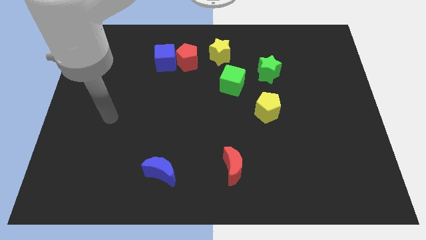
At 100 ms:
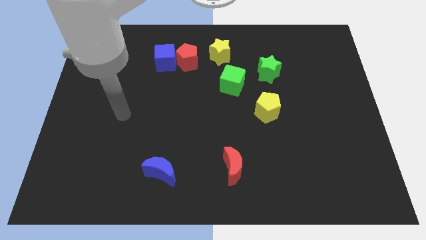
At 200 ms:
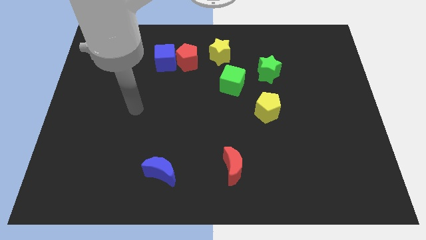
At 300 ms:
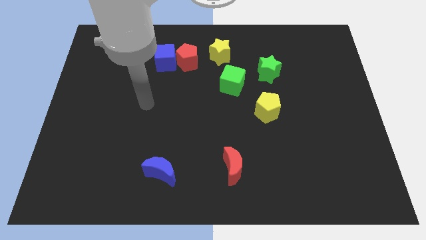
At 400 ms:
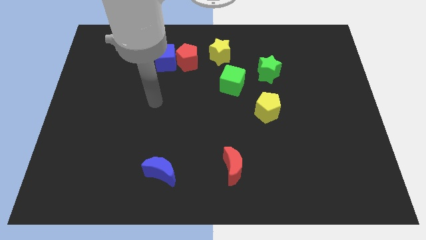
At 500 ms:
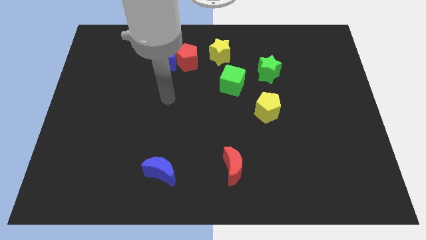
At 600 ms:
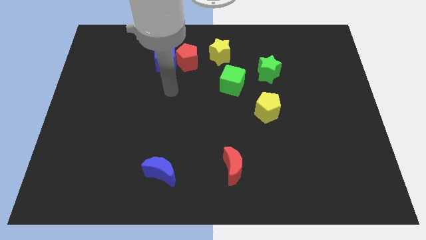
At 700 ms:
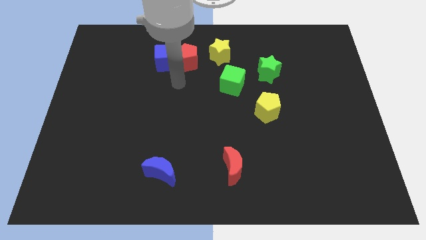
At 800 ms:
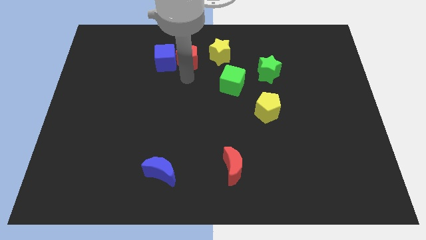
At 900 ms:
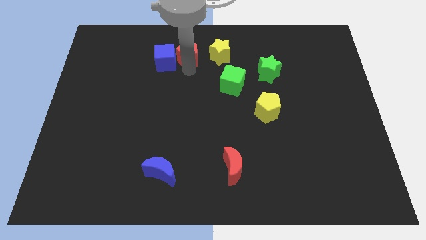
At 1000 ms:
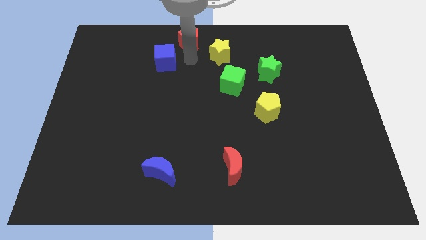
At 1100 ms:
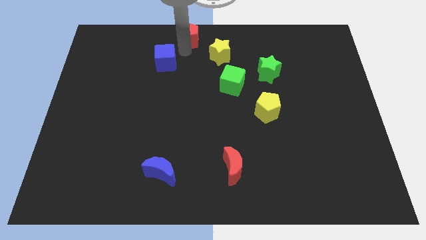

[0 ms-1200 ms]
pull the blue cube apart from the red pentagon

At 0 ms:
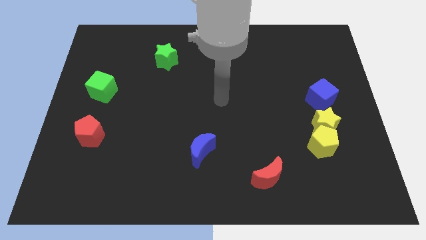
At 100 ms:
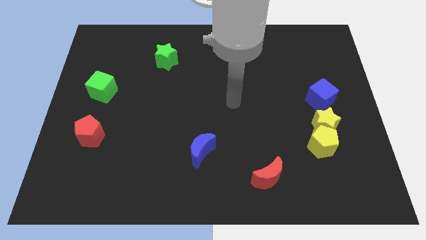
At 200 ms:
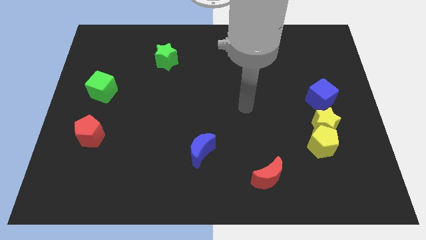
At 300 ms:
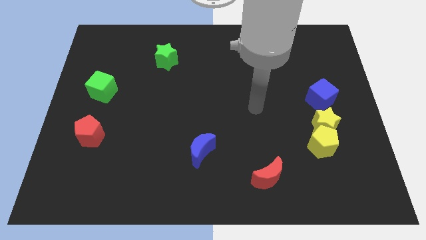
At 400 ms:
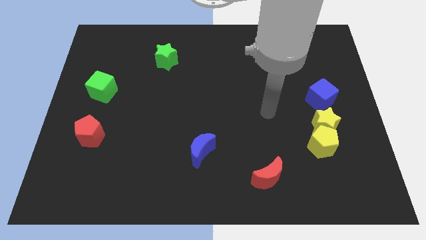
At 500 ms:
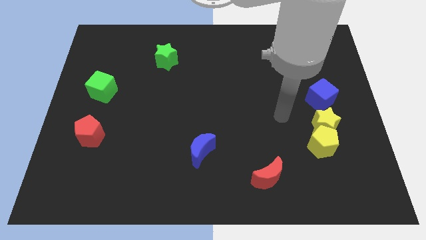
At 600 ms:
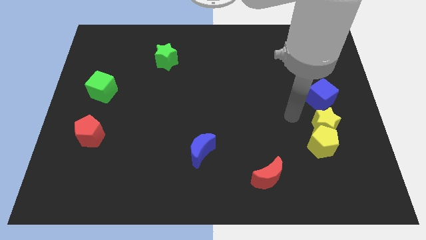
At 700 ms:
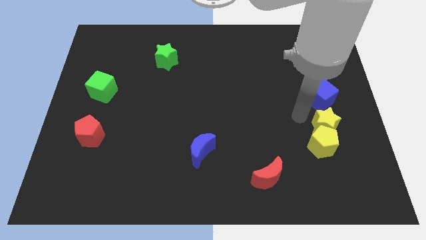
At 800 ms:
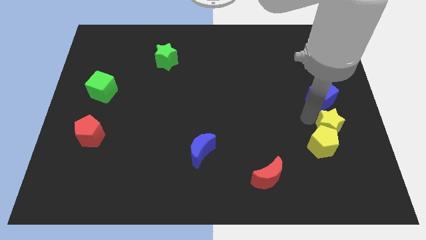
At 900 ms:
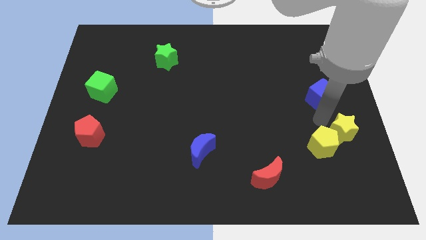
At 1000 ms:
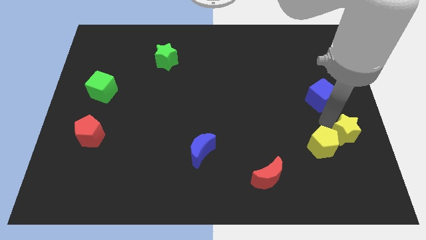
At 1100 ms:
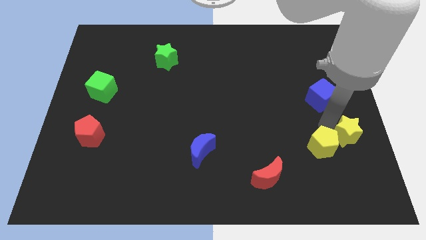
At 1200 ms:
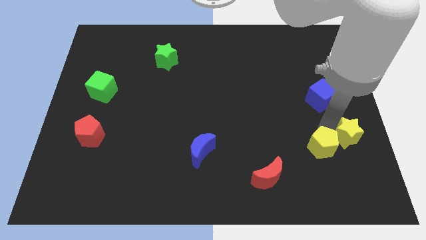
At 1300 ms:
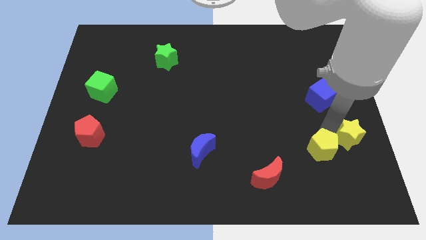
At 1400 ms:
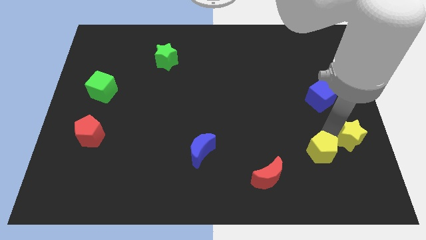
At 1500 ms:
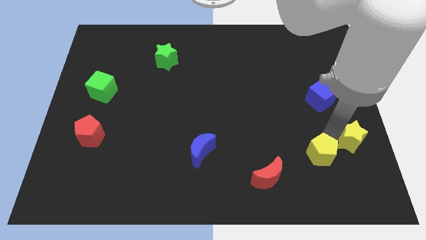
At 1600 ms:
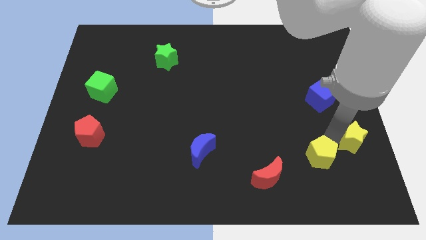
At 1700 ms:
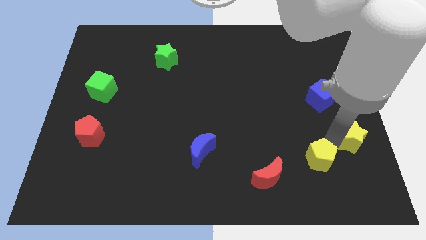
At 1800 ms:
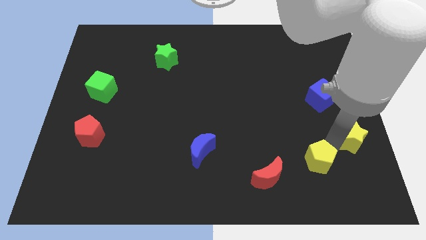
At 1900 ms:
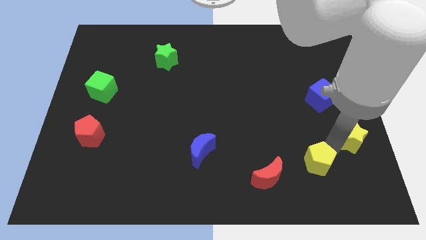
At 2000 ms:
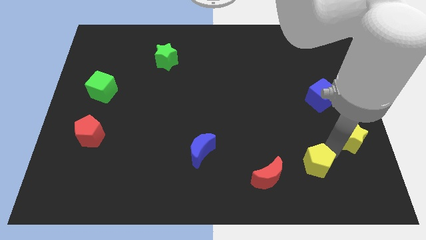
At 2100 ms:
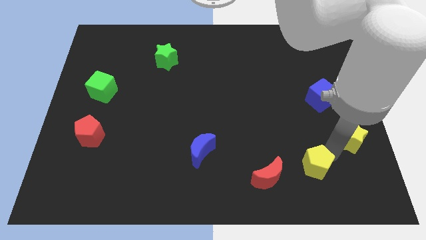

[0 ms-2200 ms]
pull the yellow pentagon apart from the yellow star

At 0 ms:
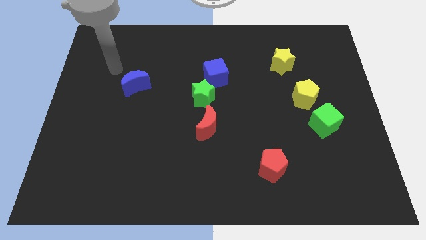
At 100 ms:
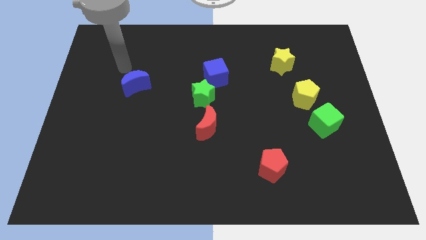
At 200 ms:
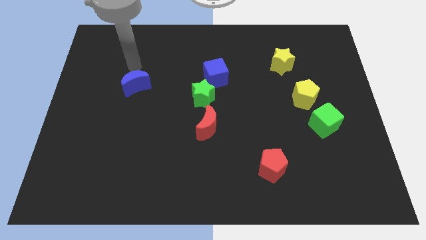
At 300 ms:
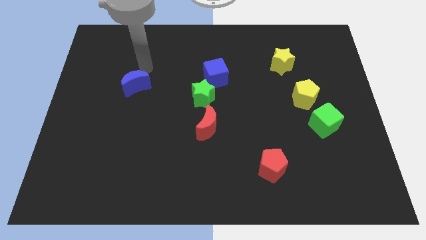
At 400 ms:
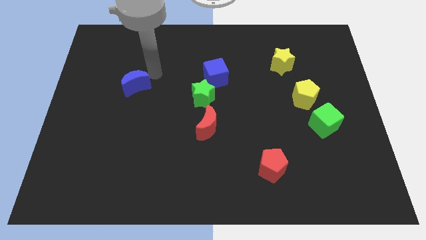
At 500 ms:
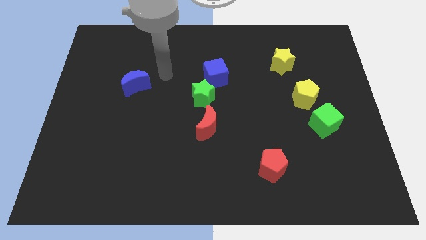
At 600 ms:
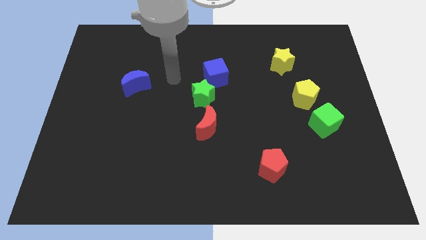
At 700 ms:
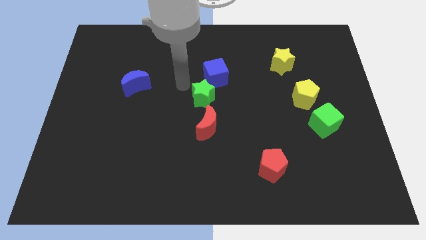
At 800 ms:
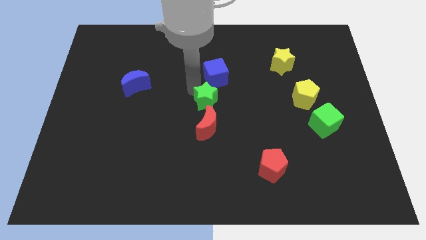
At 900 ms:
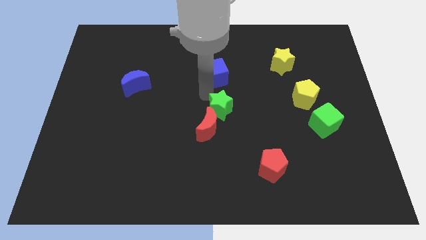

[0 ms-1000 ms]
pull the blue cube apart from the green star

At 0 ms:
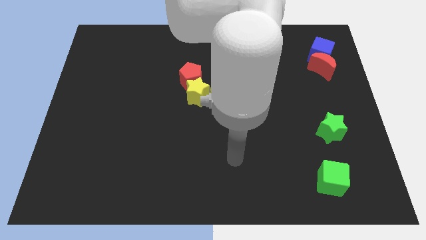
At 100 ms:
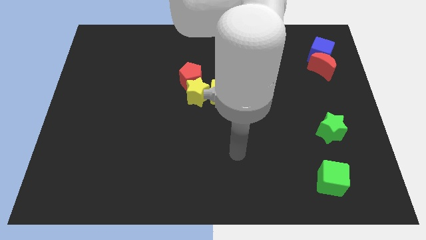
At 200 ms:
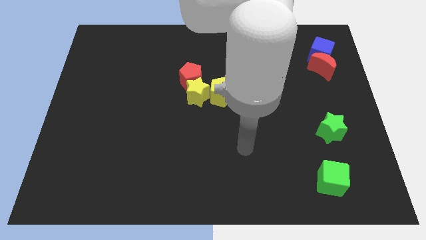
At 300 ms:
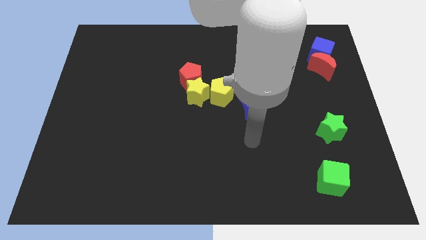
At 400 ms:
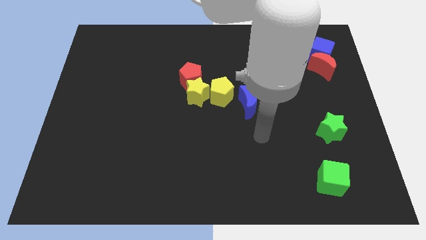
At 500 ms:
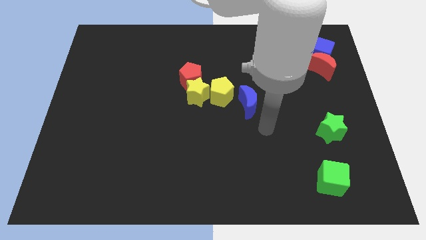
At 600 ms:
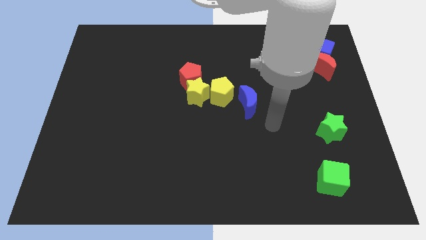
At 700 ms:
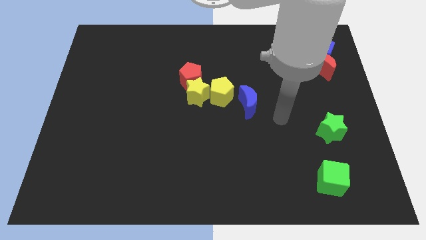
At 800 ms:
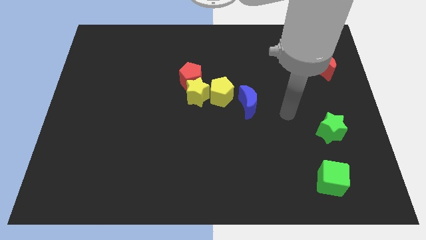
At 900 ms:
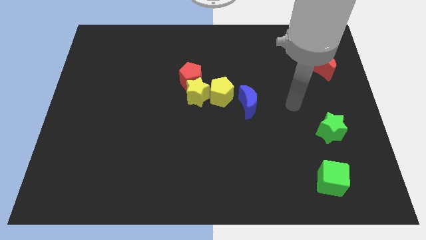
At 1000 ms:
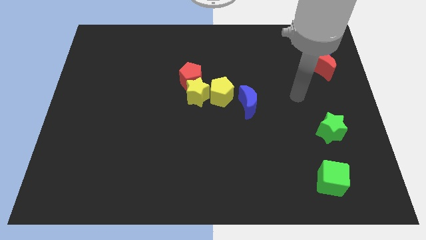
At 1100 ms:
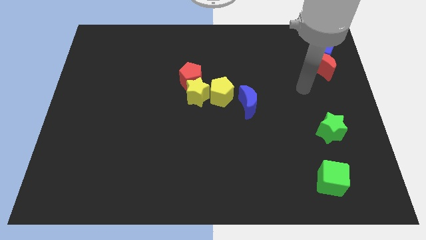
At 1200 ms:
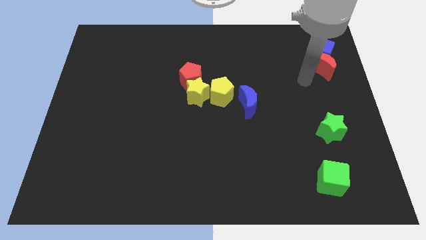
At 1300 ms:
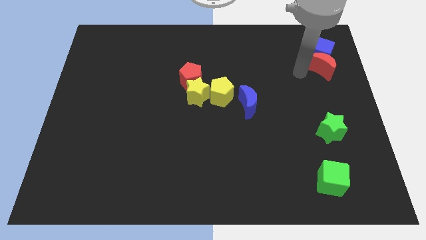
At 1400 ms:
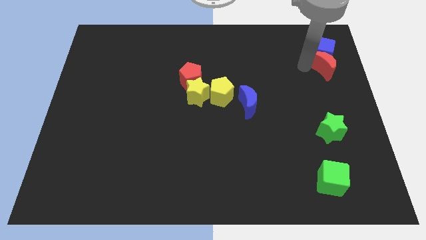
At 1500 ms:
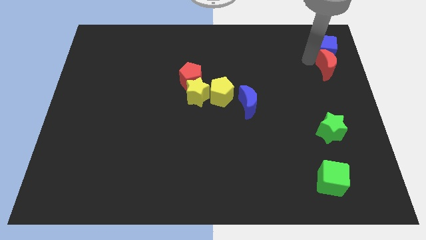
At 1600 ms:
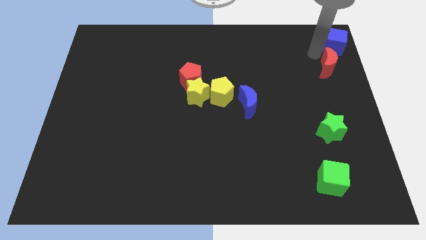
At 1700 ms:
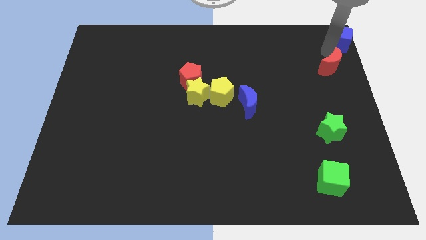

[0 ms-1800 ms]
move the red moon away from the blue cube

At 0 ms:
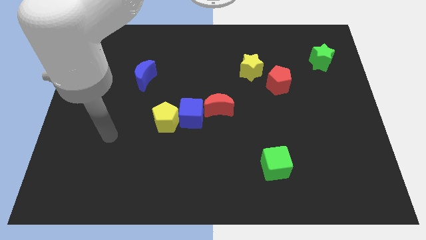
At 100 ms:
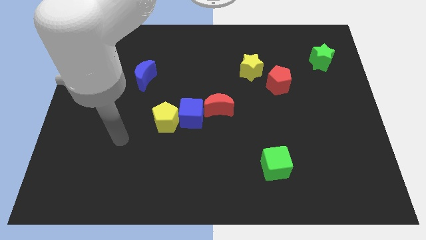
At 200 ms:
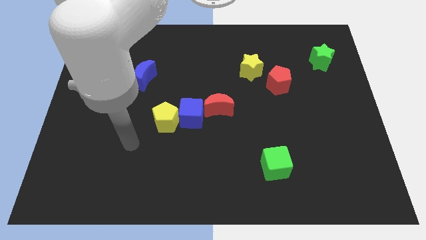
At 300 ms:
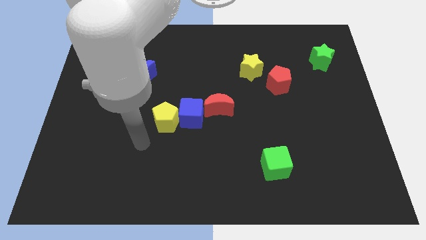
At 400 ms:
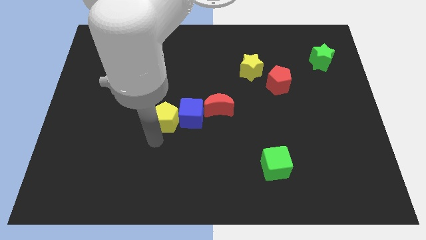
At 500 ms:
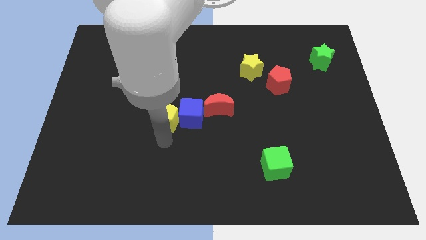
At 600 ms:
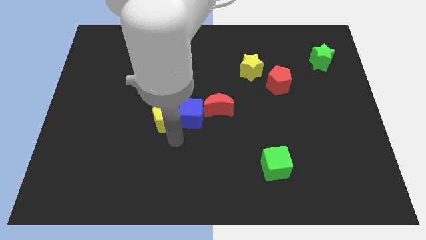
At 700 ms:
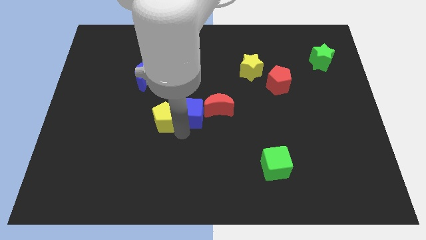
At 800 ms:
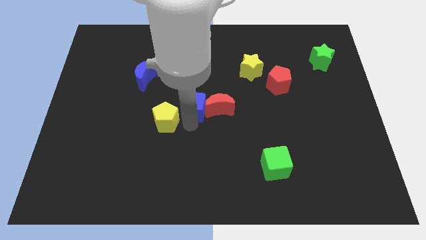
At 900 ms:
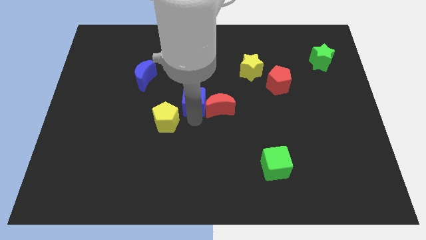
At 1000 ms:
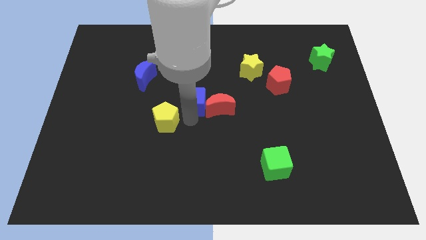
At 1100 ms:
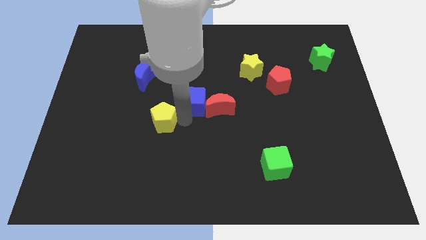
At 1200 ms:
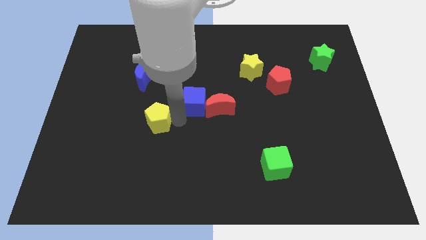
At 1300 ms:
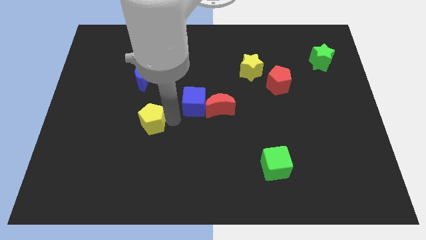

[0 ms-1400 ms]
move the yellow pentagon away from the blue cube

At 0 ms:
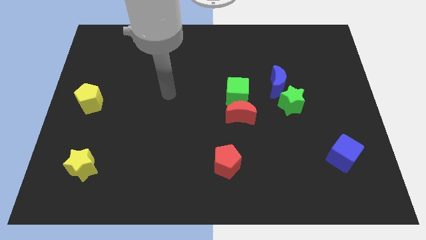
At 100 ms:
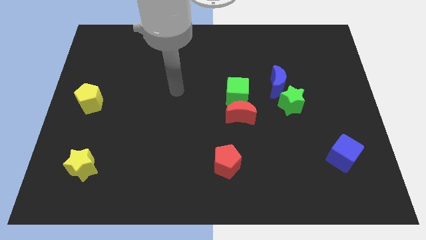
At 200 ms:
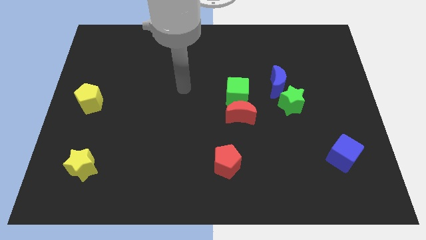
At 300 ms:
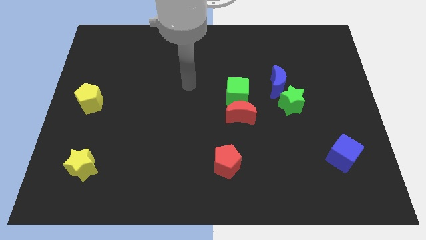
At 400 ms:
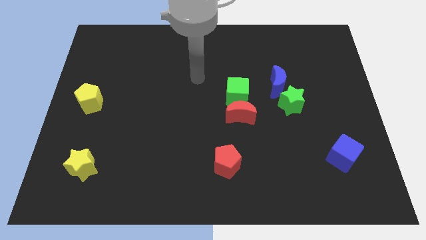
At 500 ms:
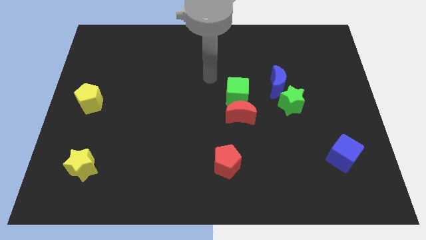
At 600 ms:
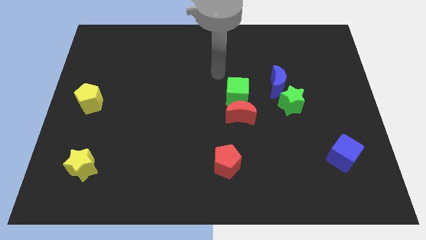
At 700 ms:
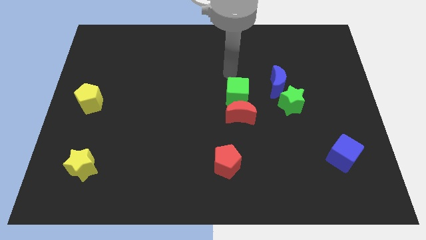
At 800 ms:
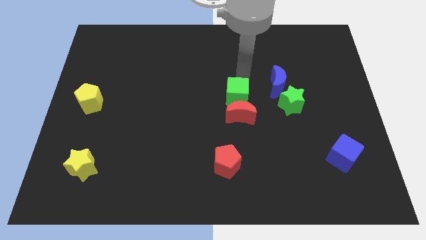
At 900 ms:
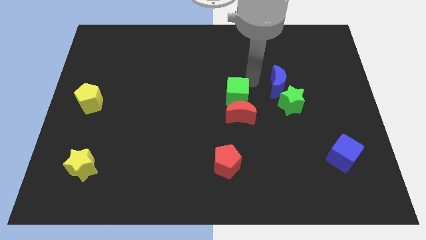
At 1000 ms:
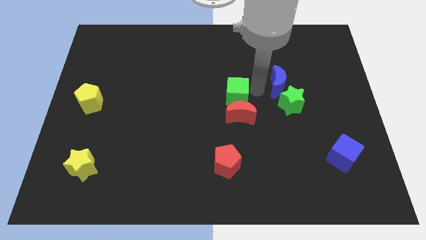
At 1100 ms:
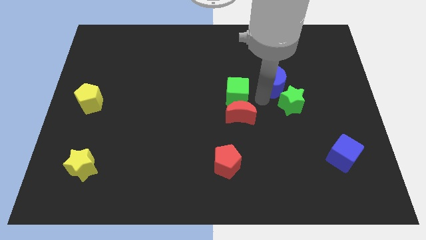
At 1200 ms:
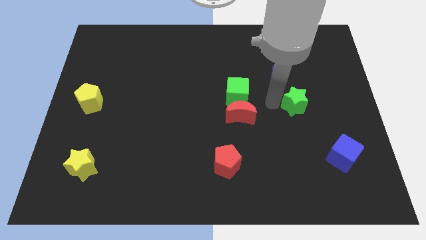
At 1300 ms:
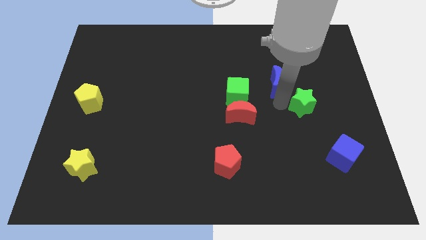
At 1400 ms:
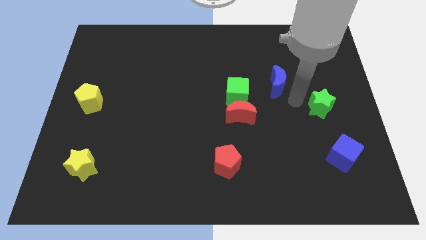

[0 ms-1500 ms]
pull the blue moon apart from the green star

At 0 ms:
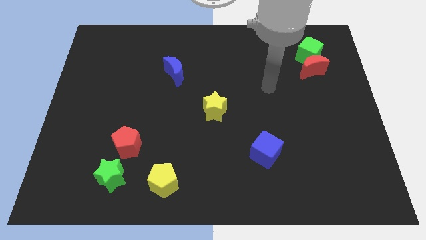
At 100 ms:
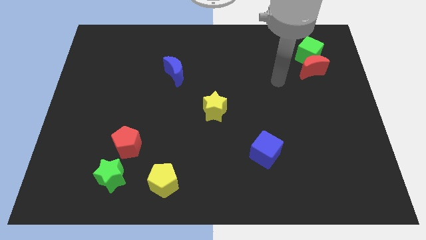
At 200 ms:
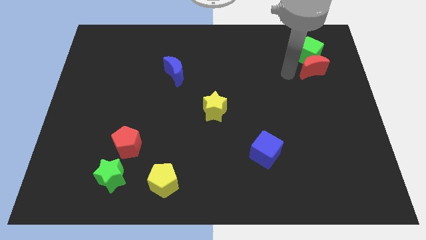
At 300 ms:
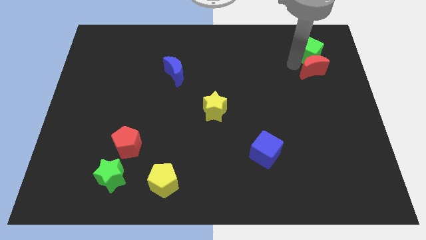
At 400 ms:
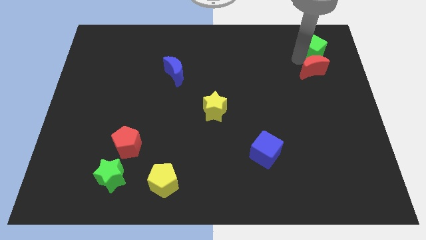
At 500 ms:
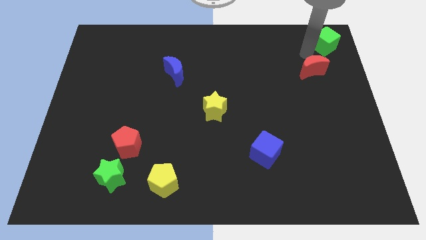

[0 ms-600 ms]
separate the red moon from the green cube
